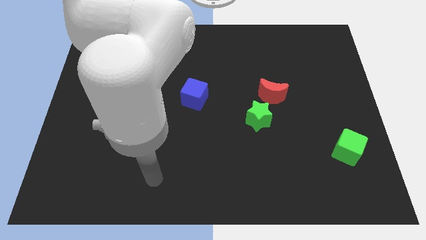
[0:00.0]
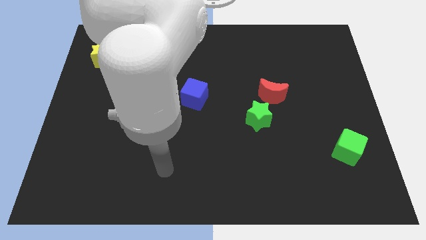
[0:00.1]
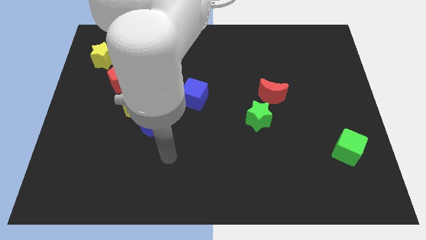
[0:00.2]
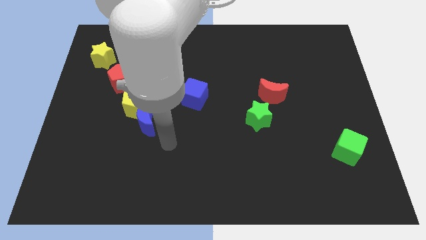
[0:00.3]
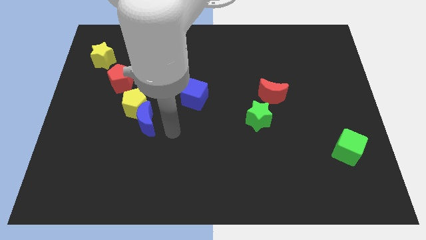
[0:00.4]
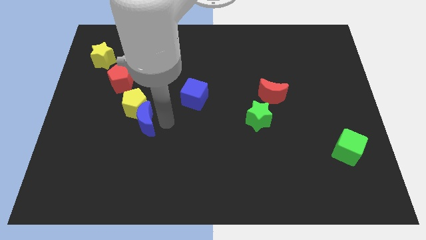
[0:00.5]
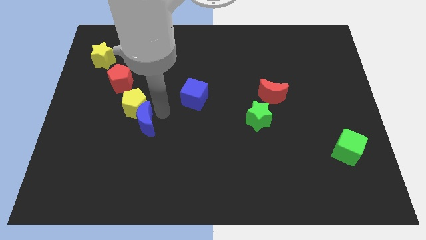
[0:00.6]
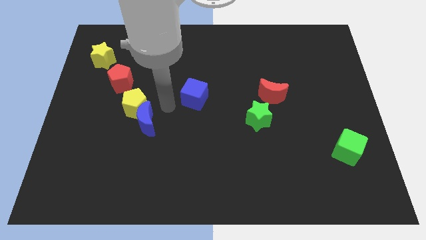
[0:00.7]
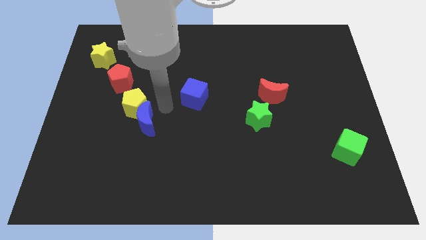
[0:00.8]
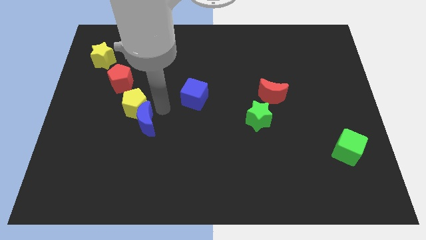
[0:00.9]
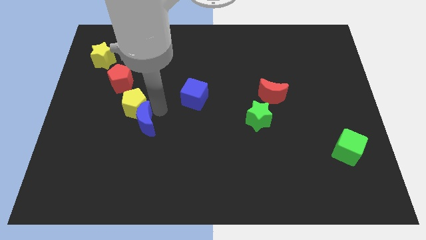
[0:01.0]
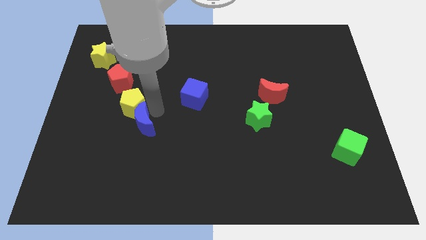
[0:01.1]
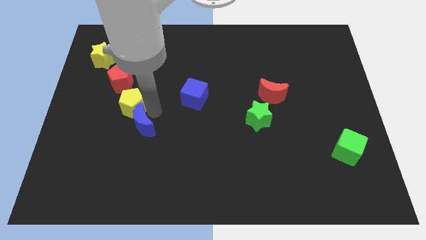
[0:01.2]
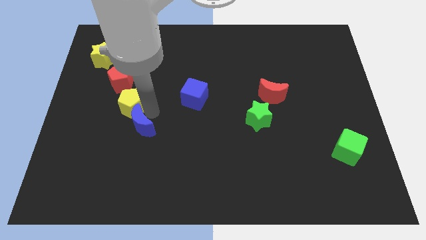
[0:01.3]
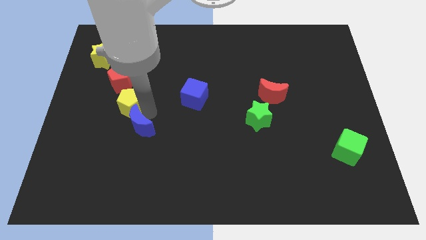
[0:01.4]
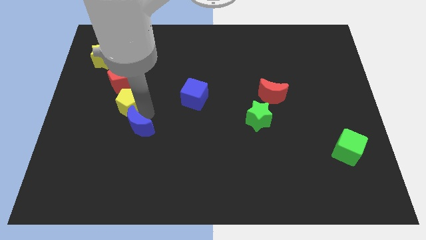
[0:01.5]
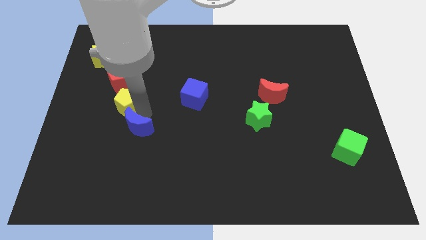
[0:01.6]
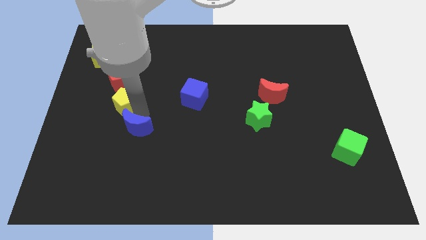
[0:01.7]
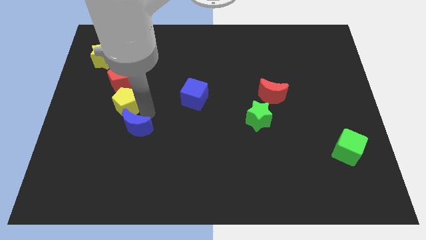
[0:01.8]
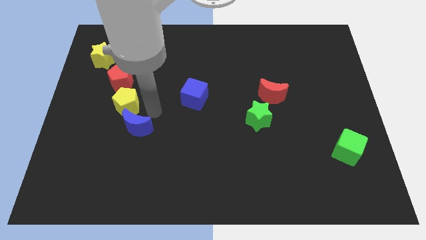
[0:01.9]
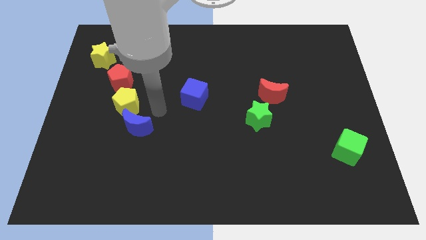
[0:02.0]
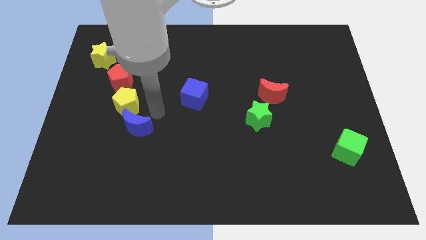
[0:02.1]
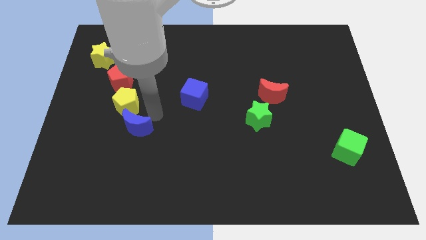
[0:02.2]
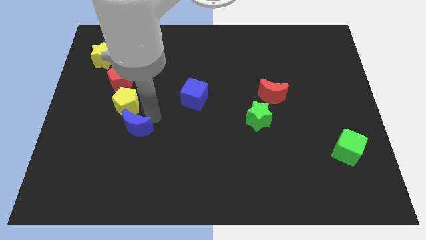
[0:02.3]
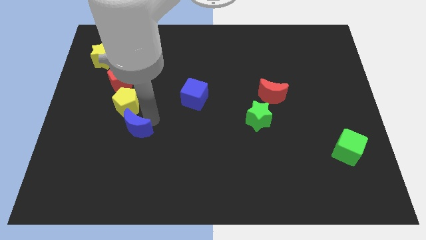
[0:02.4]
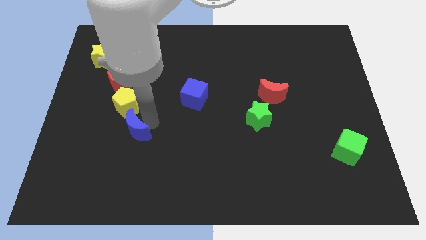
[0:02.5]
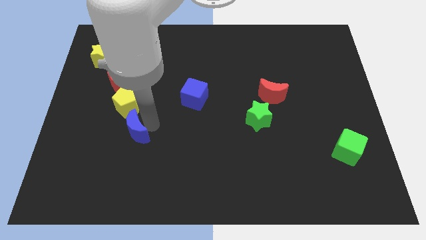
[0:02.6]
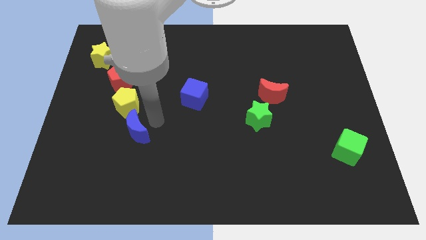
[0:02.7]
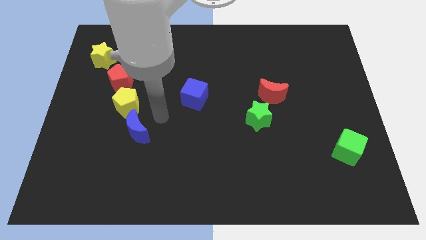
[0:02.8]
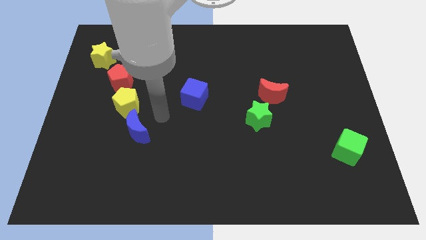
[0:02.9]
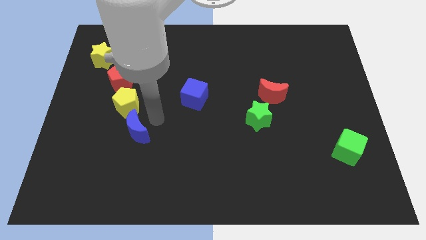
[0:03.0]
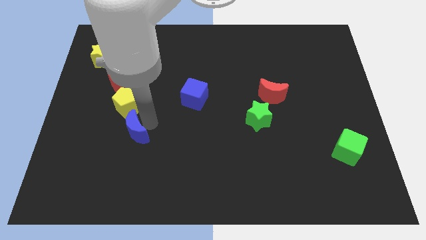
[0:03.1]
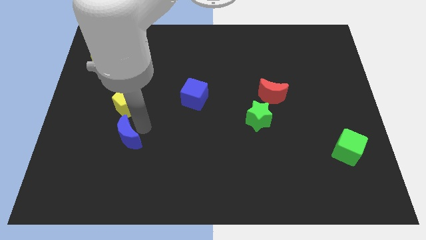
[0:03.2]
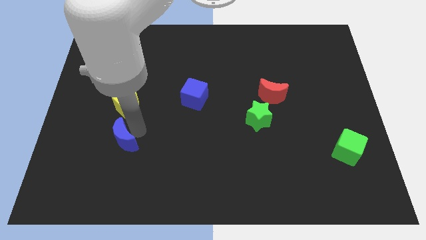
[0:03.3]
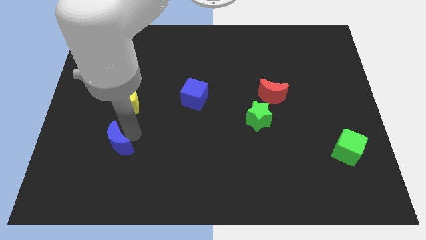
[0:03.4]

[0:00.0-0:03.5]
slightly move the blue moon down and then to the left

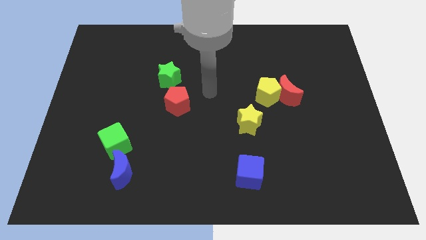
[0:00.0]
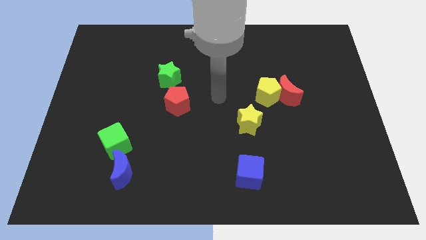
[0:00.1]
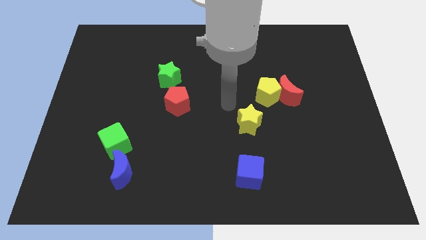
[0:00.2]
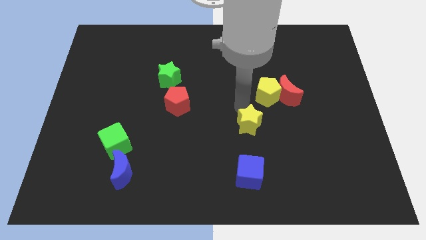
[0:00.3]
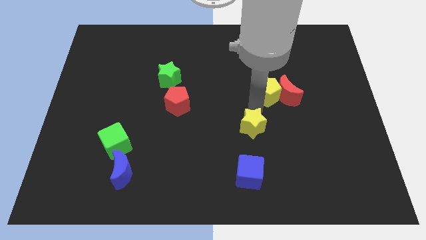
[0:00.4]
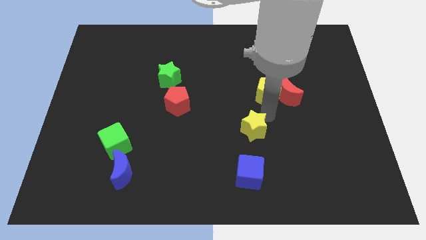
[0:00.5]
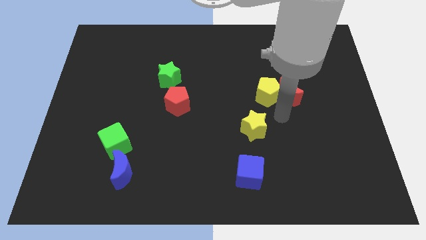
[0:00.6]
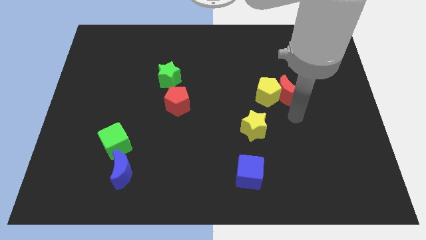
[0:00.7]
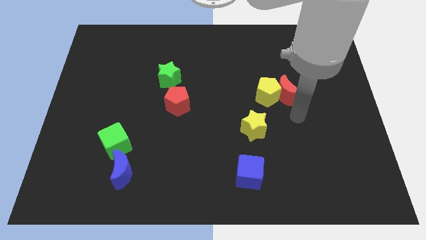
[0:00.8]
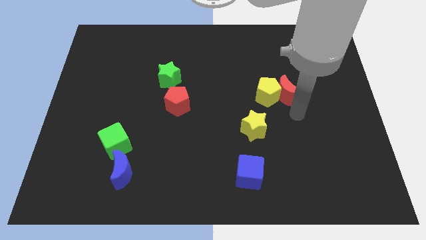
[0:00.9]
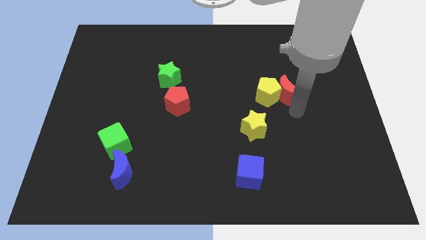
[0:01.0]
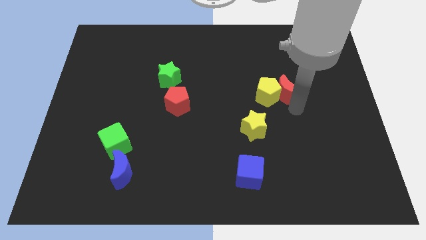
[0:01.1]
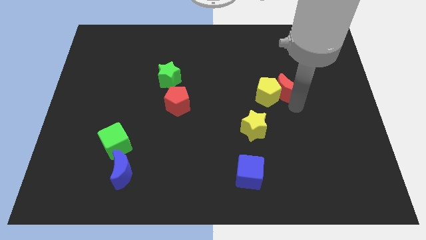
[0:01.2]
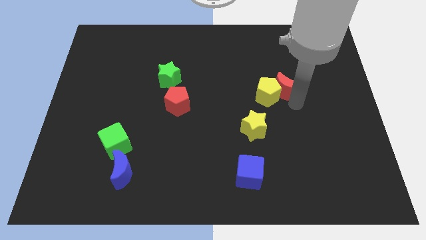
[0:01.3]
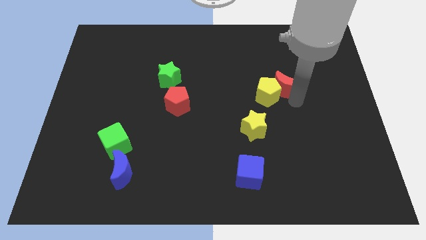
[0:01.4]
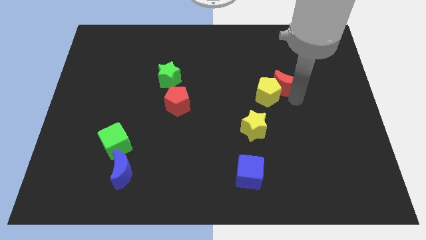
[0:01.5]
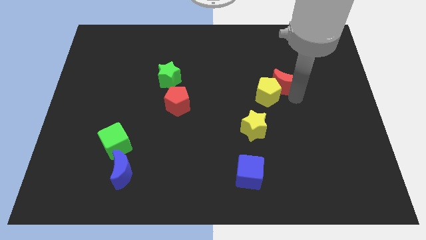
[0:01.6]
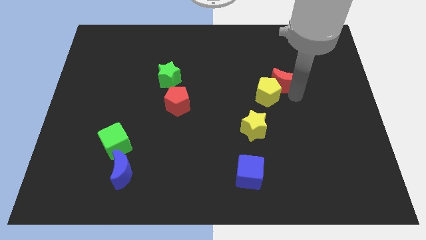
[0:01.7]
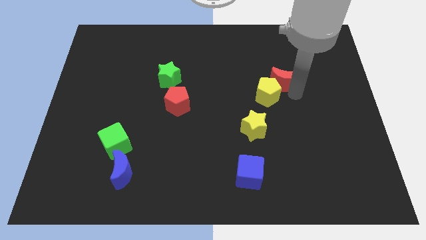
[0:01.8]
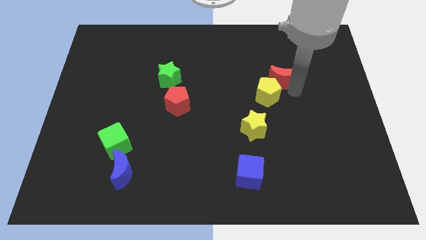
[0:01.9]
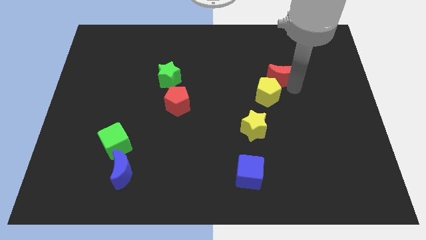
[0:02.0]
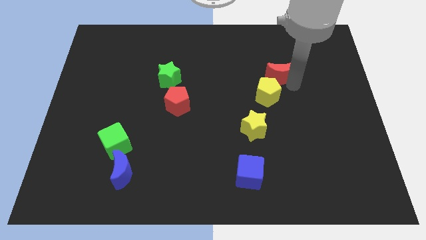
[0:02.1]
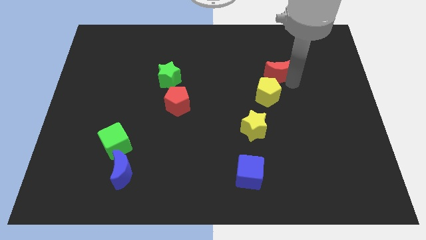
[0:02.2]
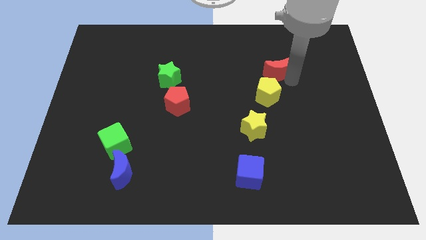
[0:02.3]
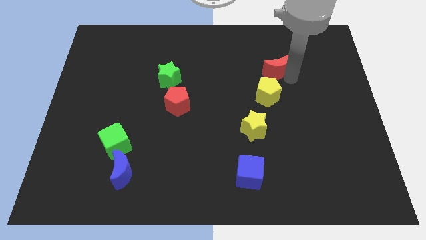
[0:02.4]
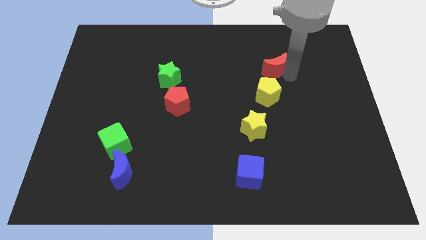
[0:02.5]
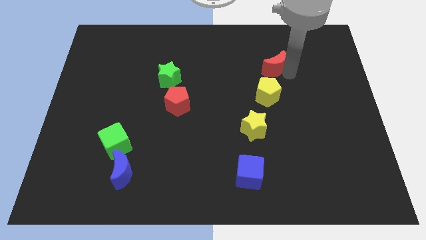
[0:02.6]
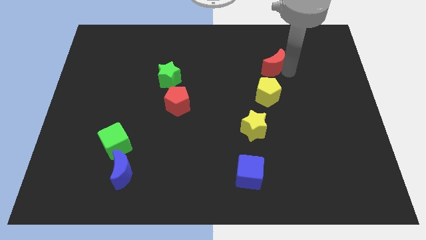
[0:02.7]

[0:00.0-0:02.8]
move the red moon a little bit up and left diagonally

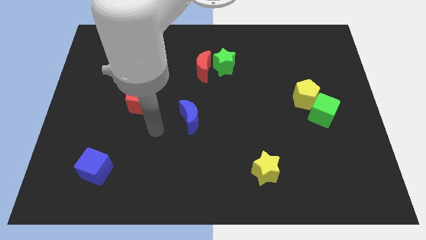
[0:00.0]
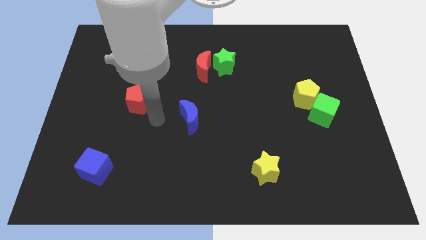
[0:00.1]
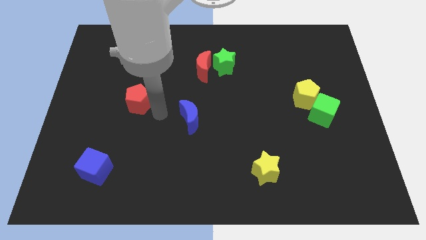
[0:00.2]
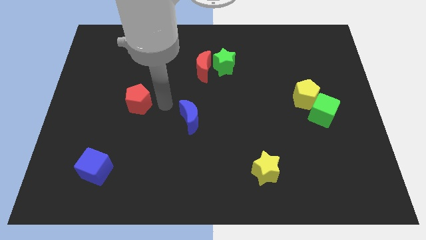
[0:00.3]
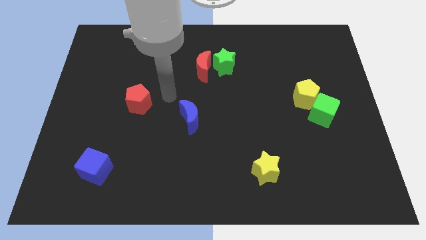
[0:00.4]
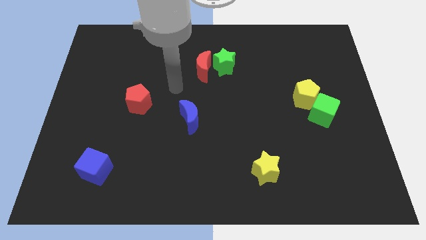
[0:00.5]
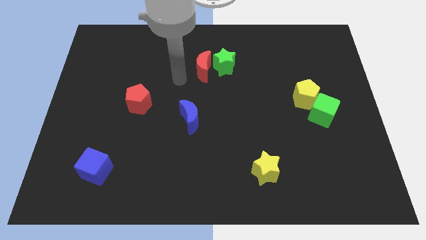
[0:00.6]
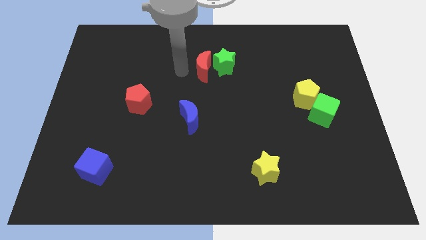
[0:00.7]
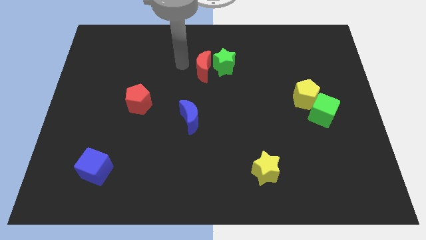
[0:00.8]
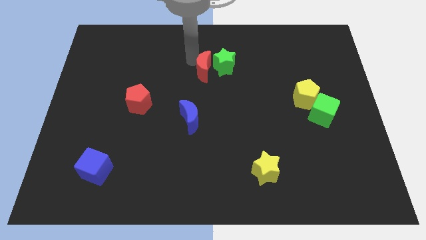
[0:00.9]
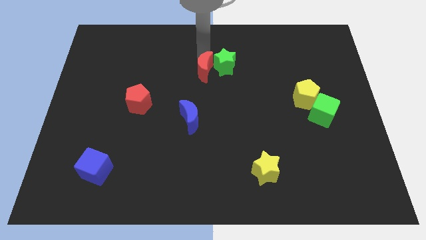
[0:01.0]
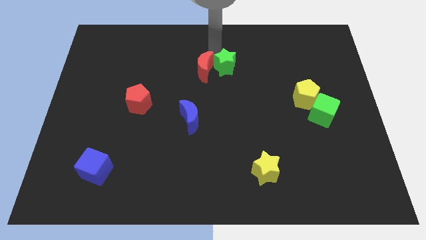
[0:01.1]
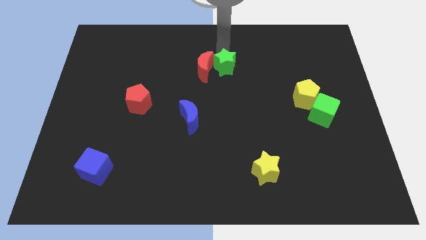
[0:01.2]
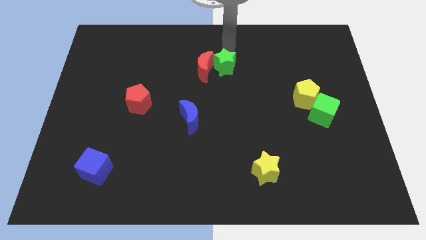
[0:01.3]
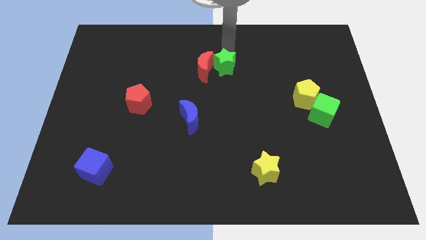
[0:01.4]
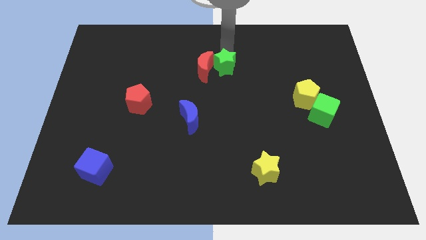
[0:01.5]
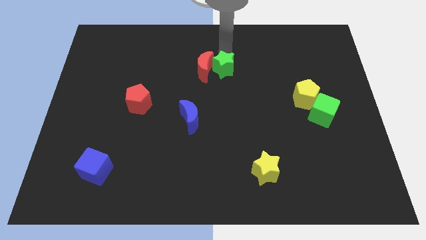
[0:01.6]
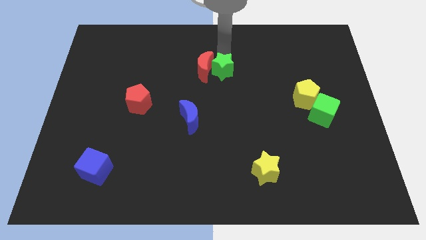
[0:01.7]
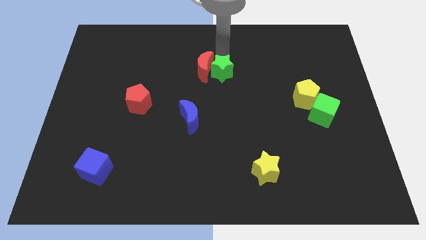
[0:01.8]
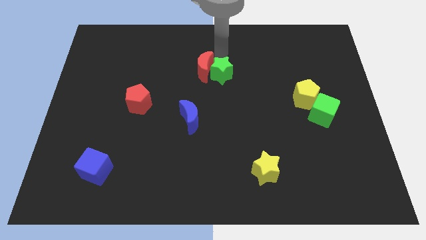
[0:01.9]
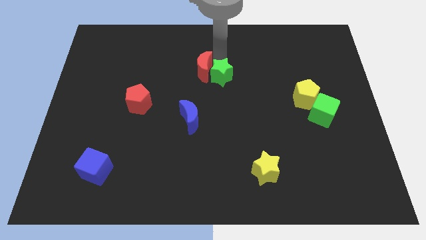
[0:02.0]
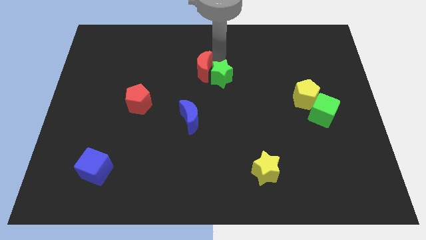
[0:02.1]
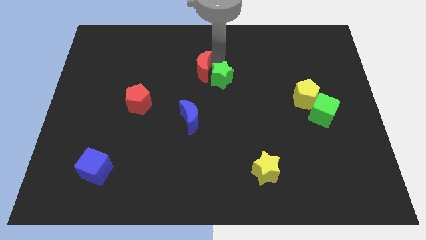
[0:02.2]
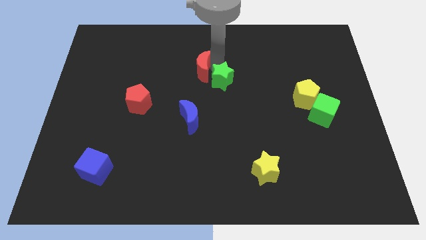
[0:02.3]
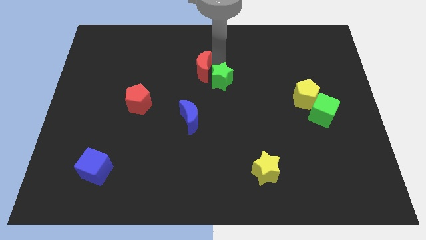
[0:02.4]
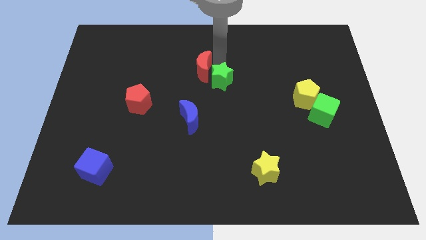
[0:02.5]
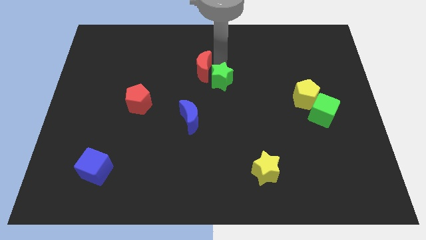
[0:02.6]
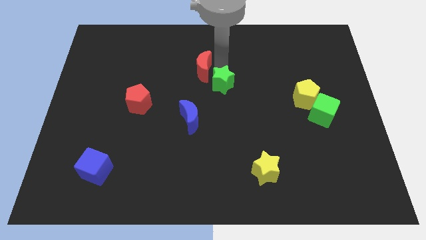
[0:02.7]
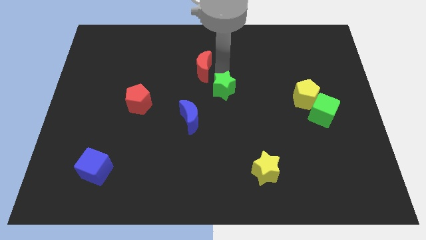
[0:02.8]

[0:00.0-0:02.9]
push the green star down a little bit
